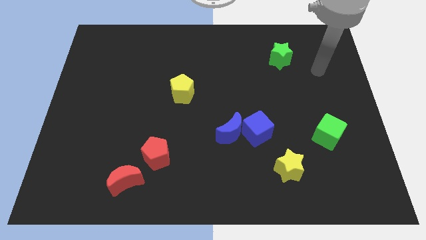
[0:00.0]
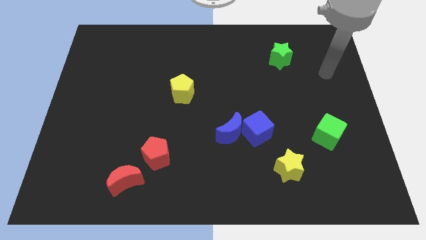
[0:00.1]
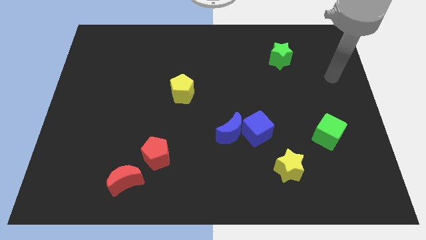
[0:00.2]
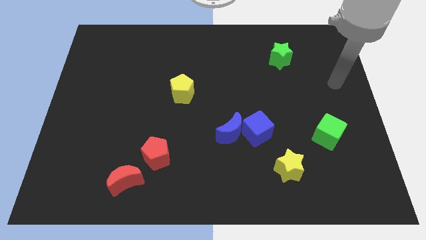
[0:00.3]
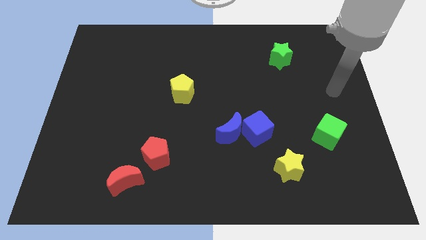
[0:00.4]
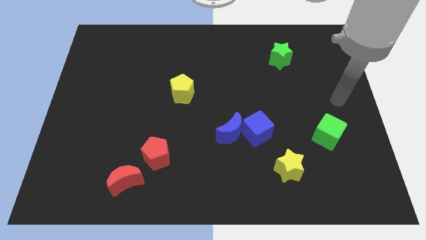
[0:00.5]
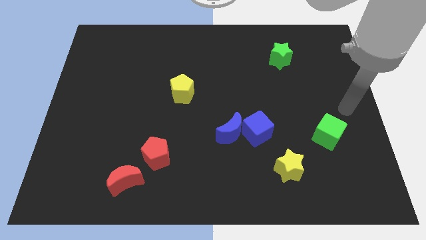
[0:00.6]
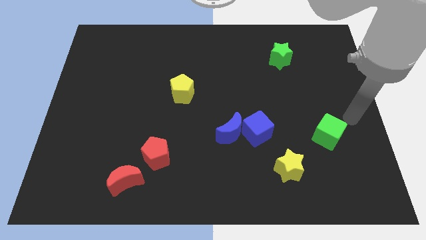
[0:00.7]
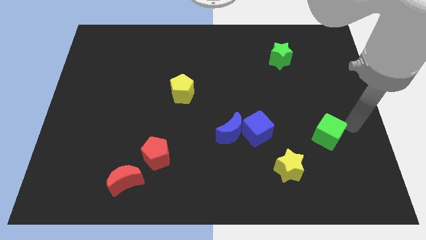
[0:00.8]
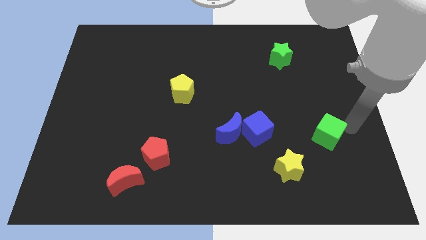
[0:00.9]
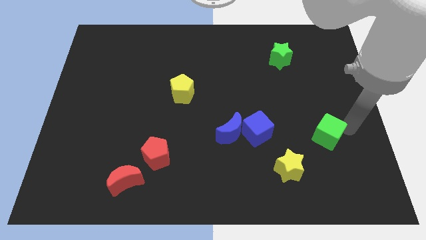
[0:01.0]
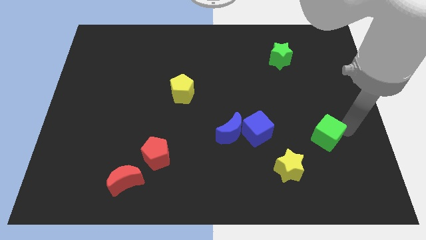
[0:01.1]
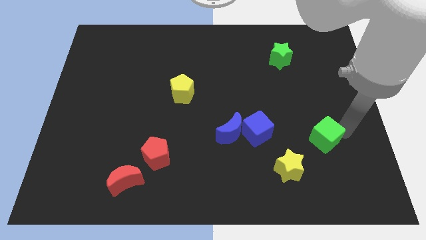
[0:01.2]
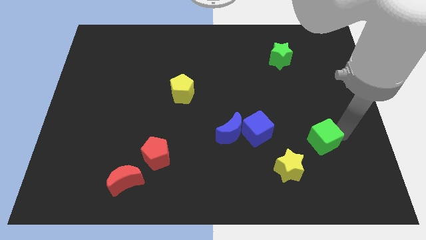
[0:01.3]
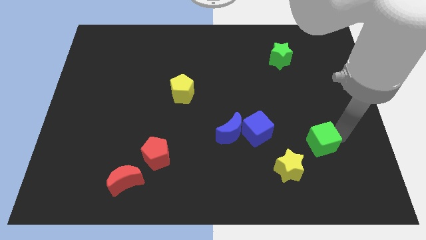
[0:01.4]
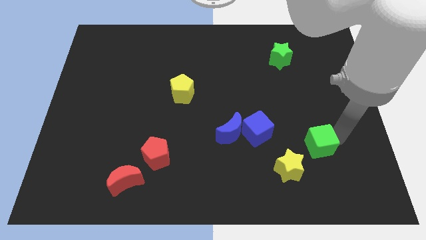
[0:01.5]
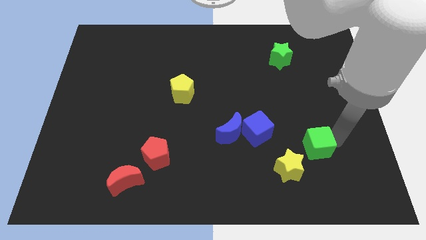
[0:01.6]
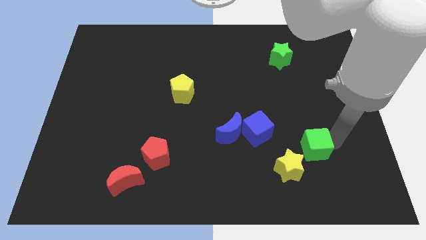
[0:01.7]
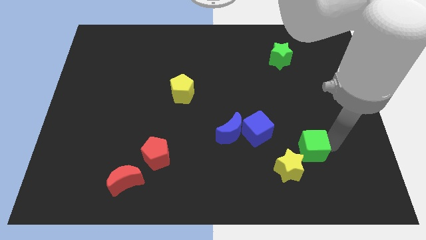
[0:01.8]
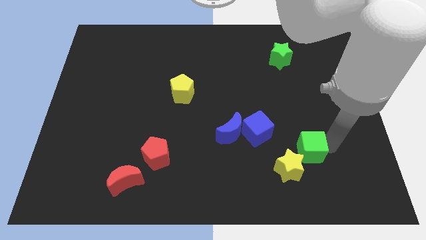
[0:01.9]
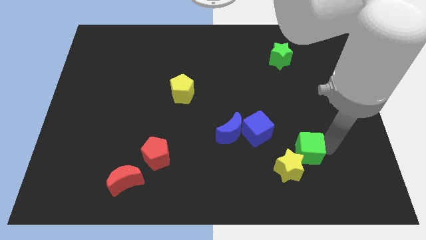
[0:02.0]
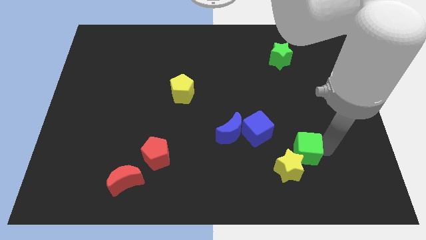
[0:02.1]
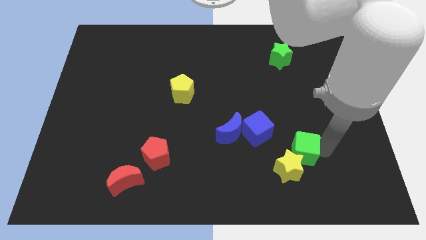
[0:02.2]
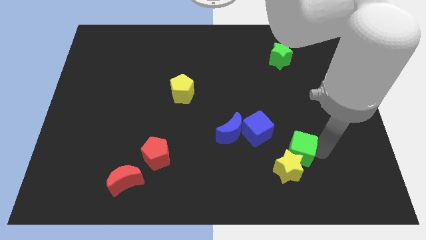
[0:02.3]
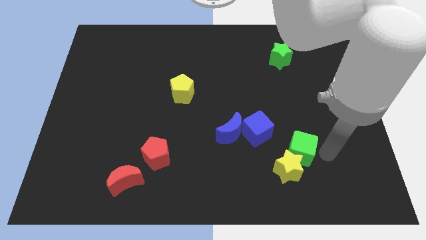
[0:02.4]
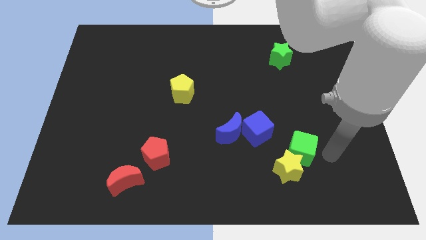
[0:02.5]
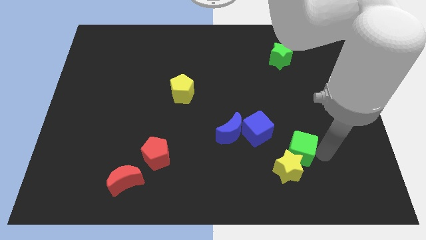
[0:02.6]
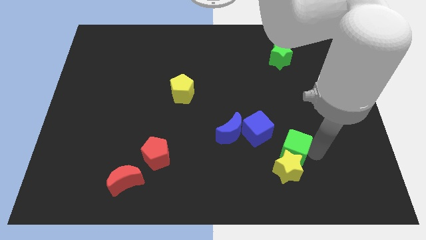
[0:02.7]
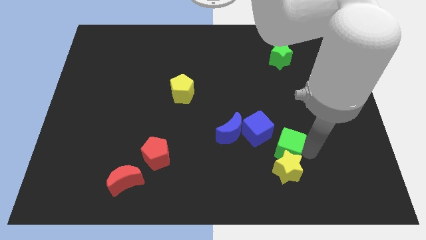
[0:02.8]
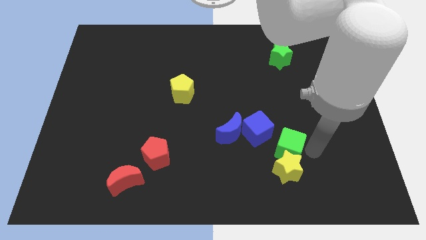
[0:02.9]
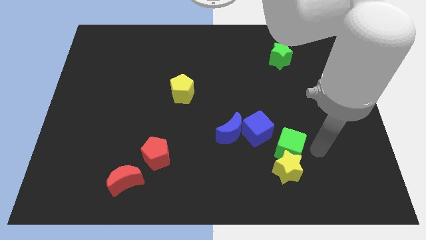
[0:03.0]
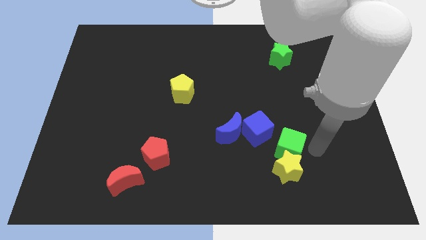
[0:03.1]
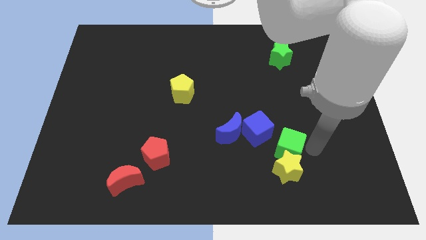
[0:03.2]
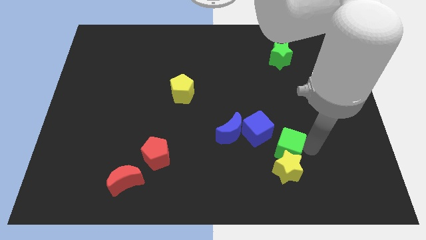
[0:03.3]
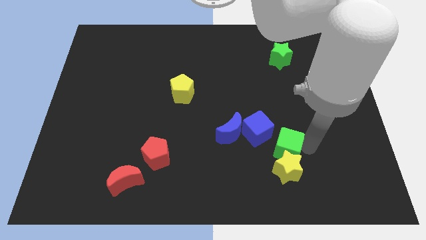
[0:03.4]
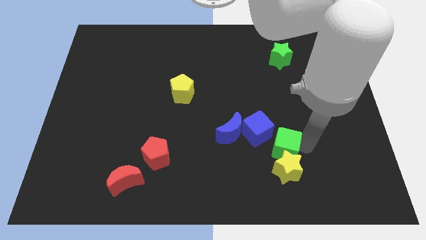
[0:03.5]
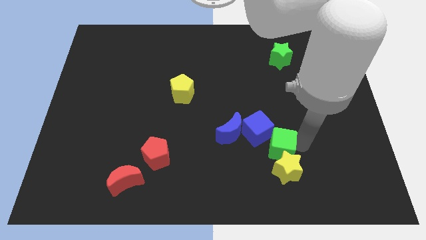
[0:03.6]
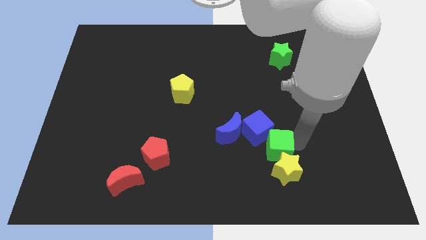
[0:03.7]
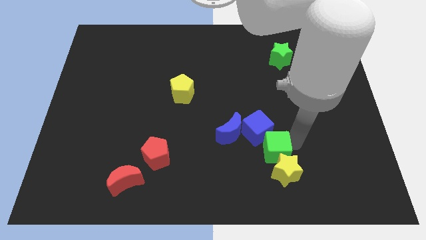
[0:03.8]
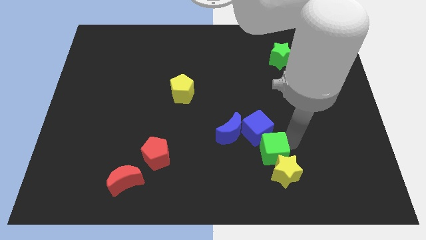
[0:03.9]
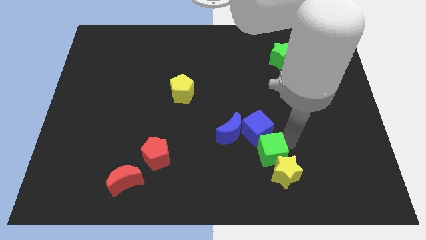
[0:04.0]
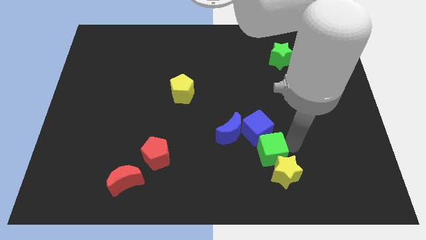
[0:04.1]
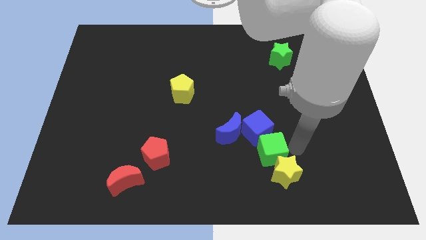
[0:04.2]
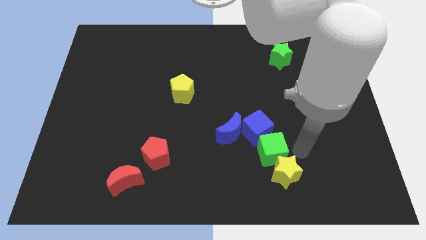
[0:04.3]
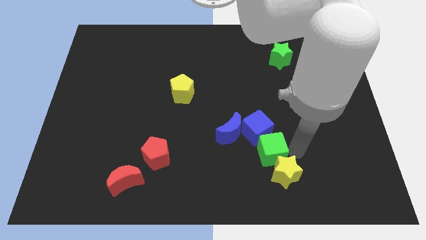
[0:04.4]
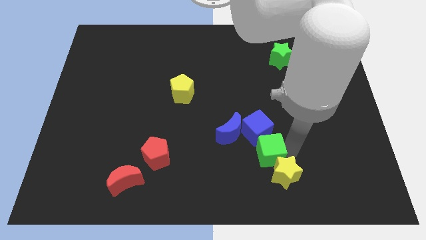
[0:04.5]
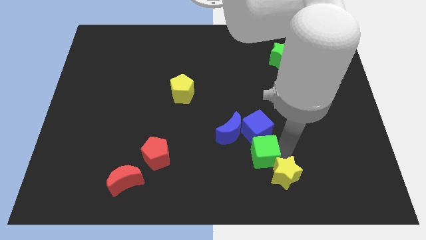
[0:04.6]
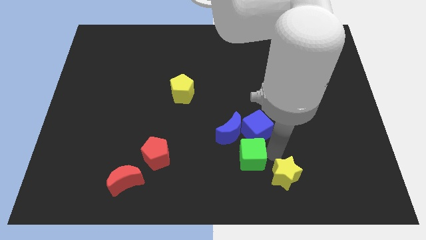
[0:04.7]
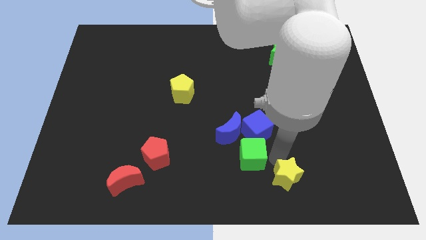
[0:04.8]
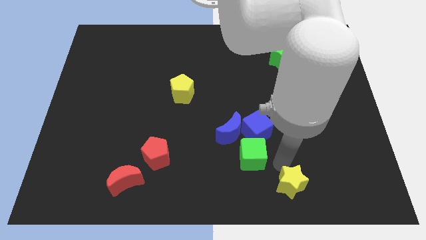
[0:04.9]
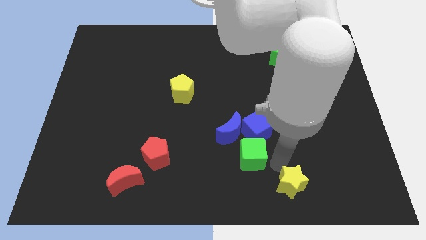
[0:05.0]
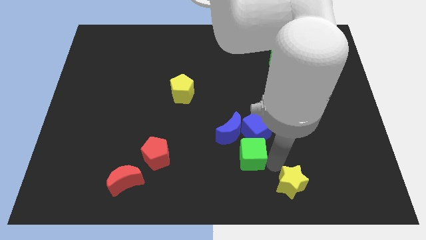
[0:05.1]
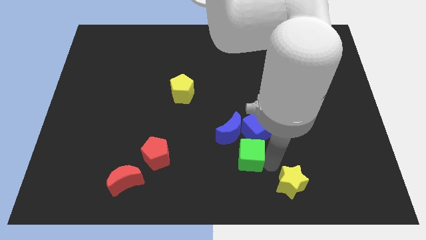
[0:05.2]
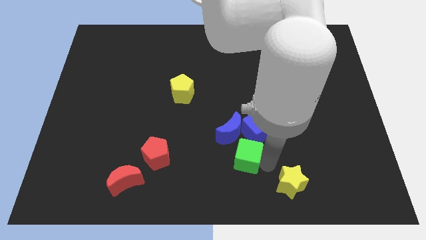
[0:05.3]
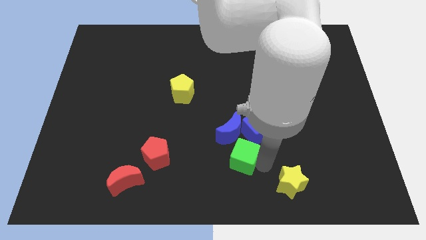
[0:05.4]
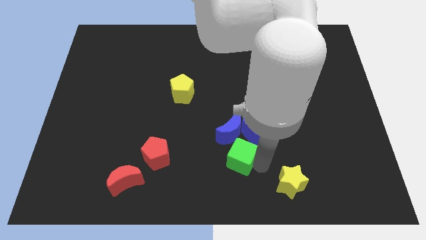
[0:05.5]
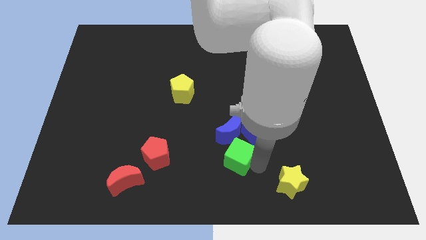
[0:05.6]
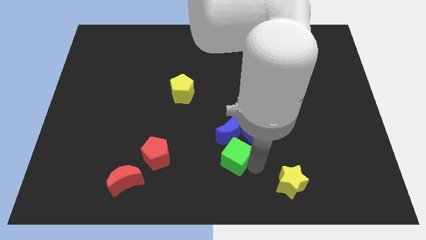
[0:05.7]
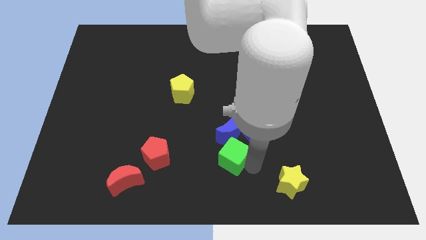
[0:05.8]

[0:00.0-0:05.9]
put the green cube to the bottom left of the blue moon

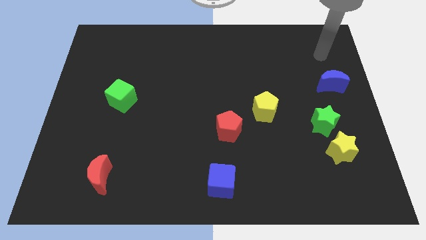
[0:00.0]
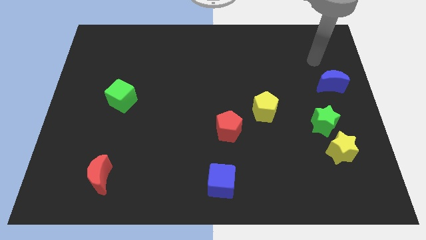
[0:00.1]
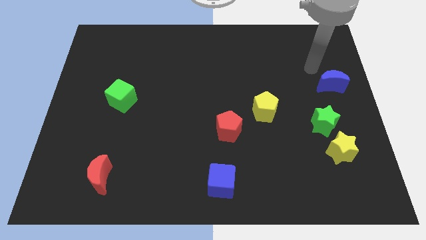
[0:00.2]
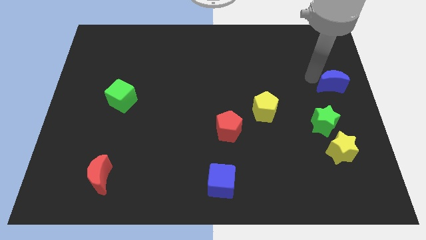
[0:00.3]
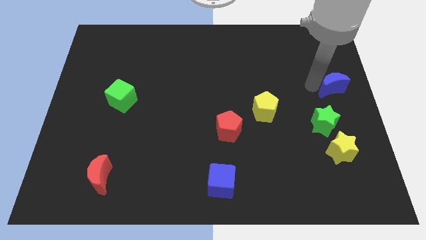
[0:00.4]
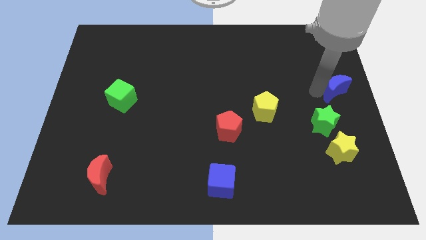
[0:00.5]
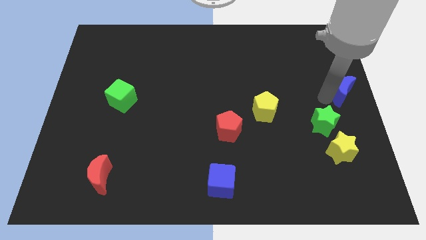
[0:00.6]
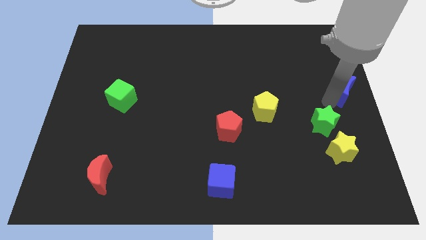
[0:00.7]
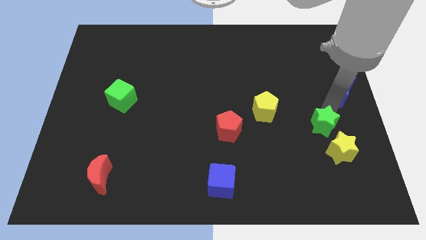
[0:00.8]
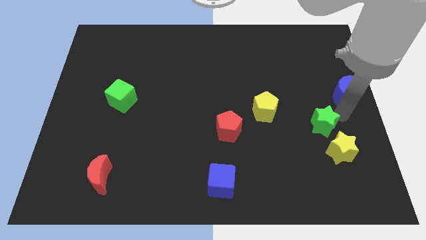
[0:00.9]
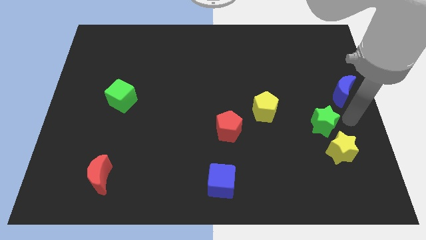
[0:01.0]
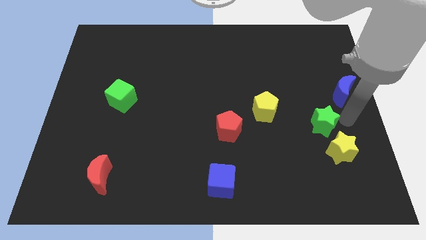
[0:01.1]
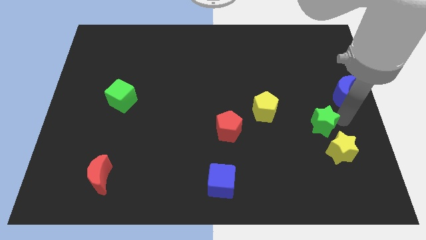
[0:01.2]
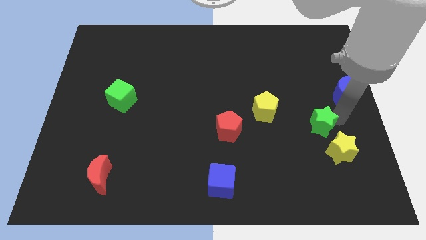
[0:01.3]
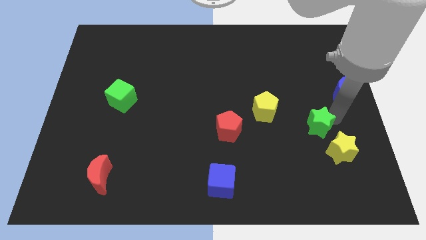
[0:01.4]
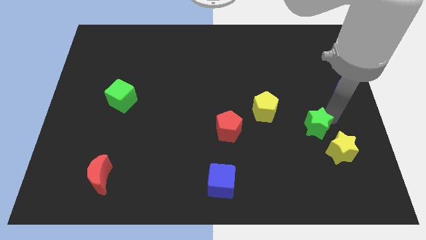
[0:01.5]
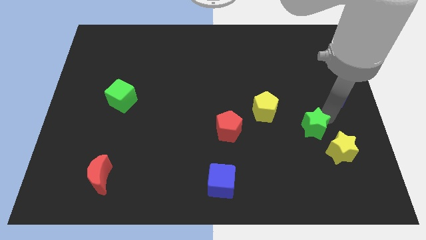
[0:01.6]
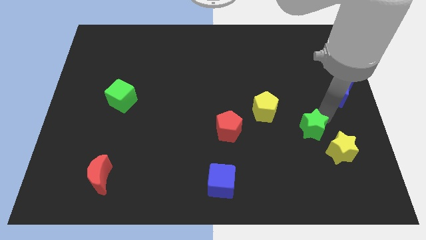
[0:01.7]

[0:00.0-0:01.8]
push the green star to the bottom right of the yellow pentagon

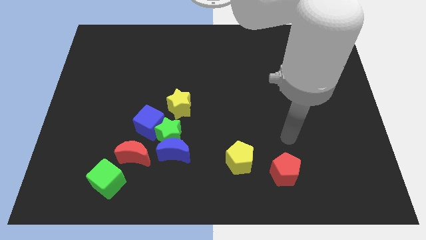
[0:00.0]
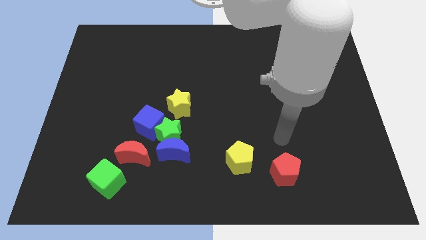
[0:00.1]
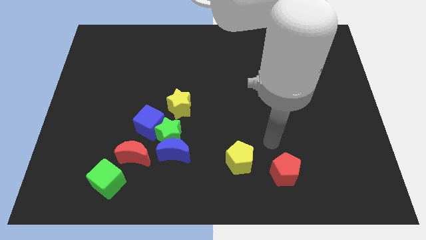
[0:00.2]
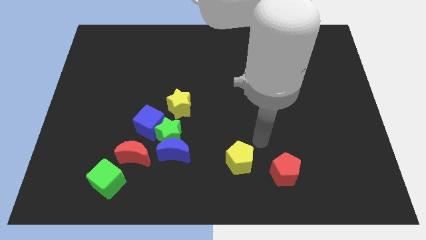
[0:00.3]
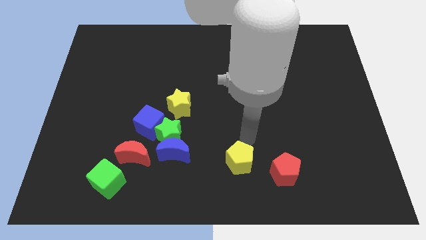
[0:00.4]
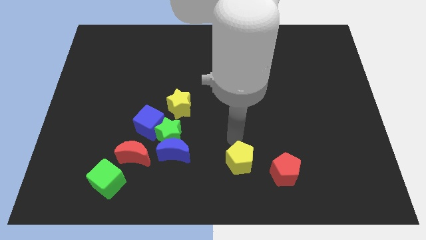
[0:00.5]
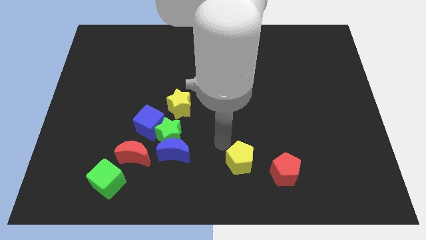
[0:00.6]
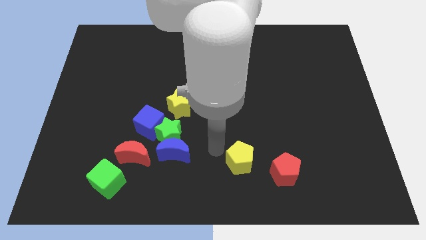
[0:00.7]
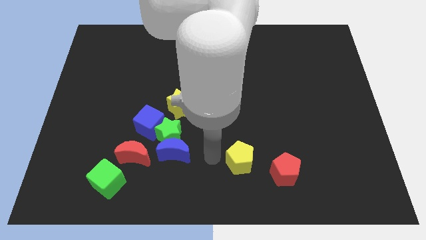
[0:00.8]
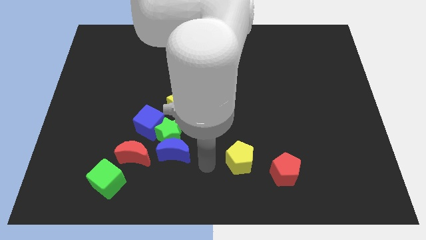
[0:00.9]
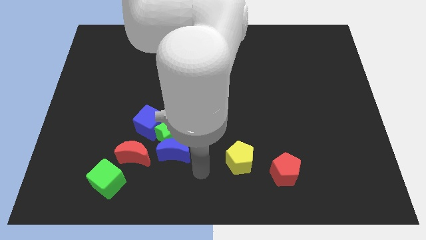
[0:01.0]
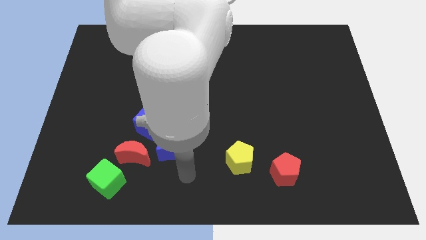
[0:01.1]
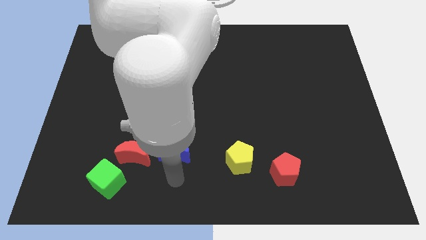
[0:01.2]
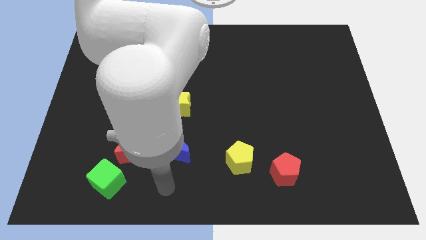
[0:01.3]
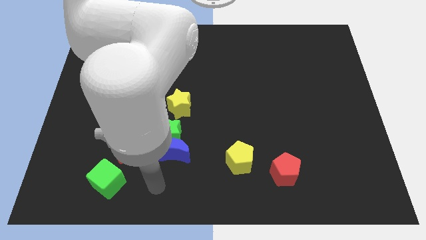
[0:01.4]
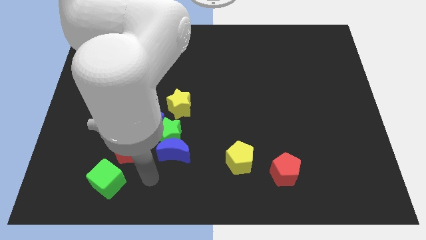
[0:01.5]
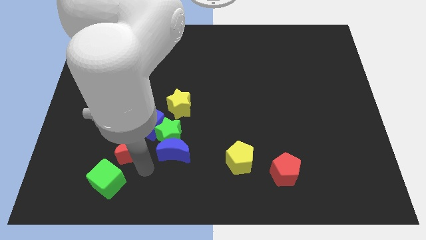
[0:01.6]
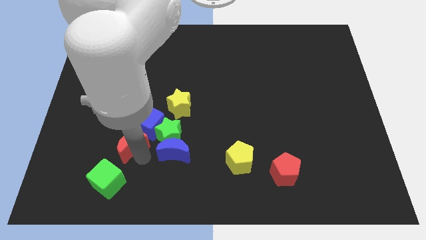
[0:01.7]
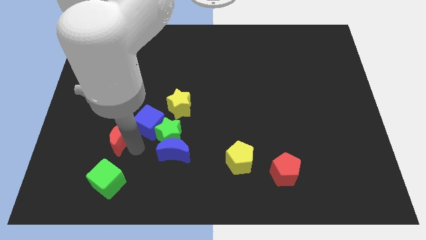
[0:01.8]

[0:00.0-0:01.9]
push the blue cube to the right of the red moon
